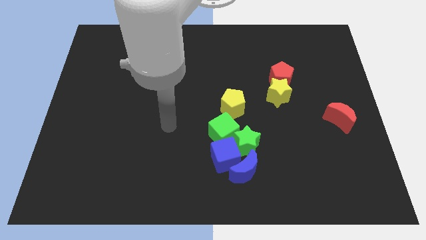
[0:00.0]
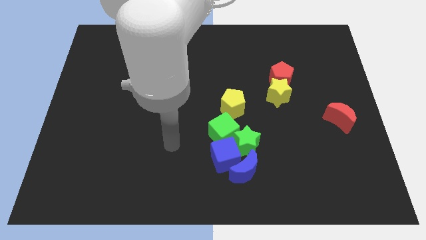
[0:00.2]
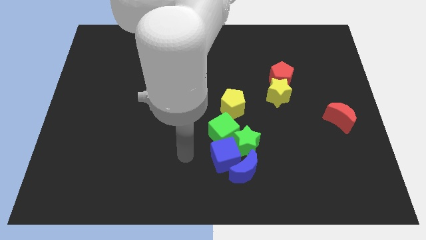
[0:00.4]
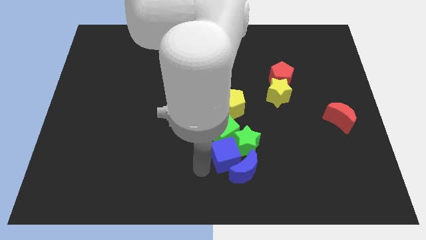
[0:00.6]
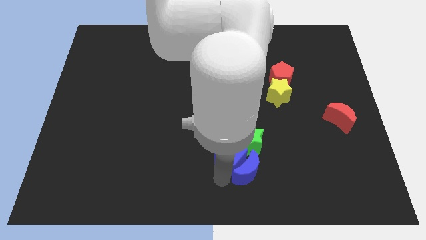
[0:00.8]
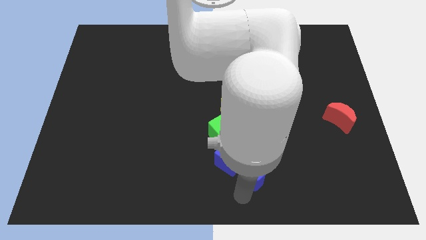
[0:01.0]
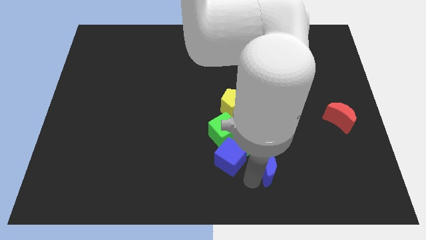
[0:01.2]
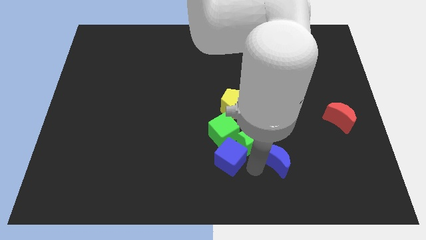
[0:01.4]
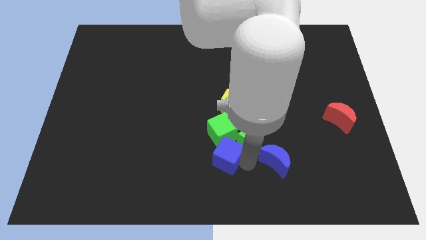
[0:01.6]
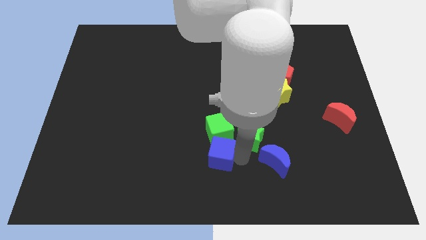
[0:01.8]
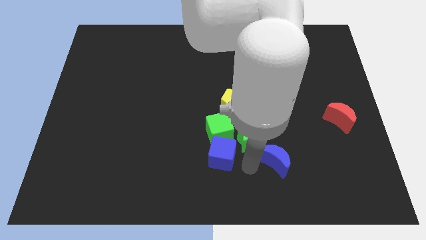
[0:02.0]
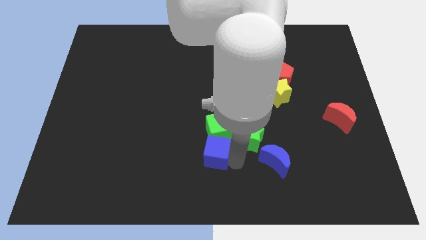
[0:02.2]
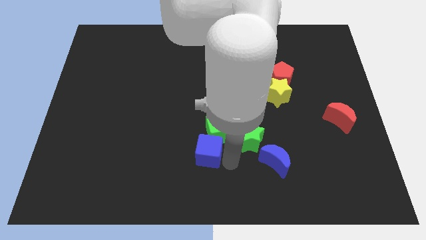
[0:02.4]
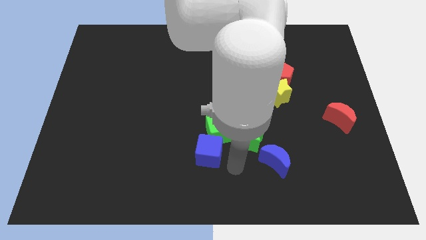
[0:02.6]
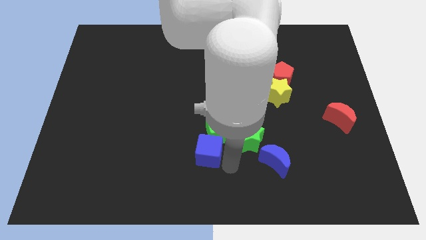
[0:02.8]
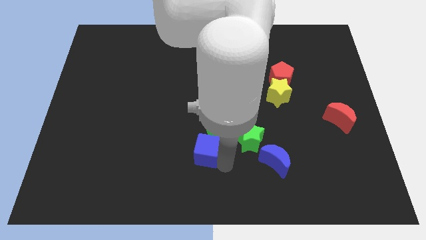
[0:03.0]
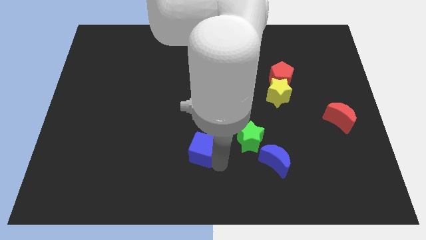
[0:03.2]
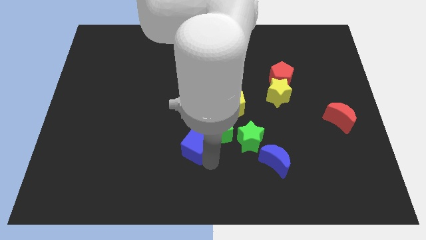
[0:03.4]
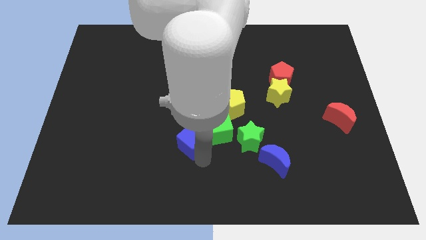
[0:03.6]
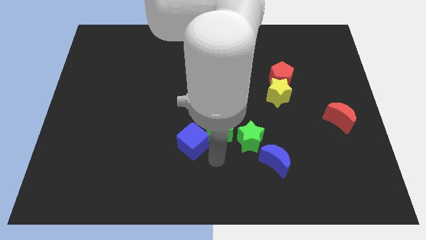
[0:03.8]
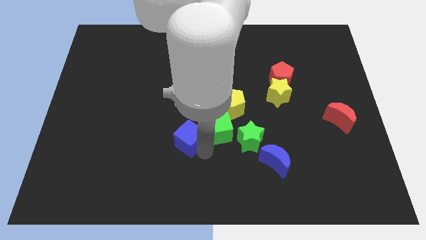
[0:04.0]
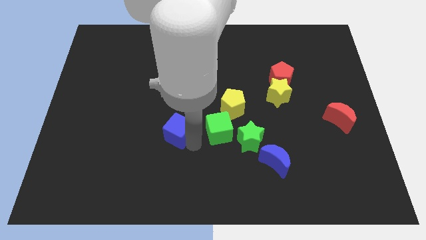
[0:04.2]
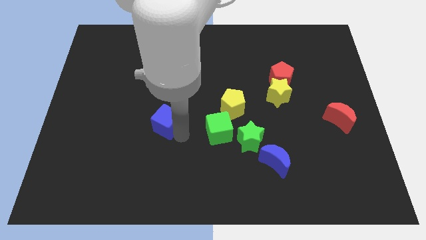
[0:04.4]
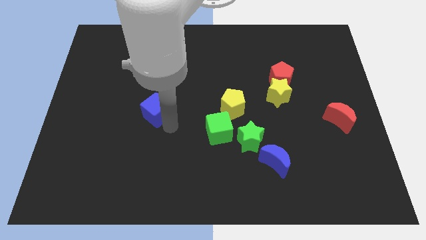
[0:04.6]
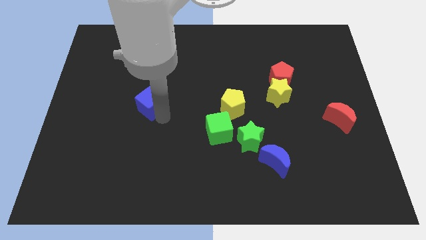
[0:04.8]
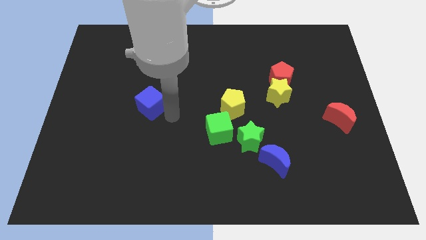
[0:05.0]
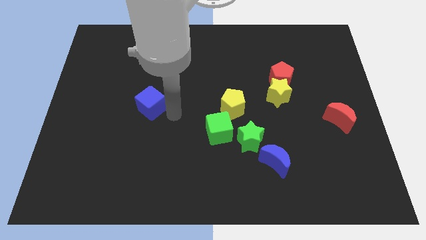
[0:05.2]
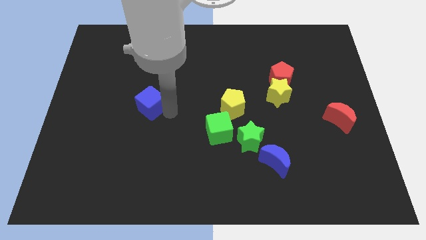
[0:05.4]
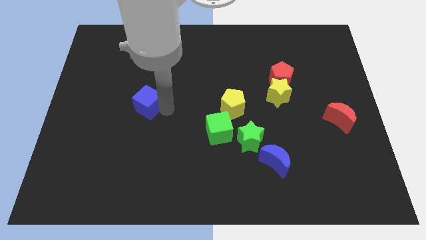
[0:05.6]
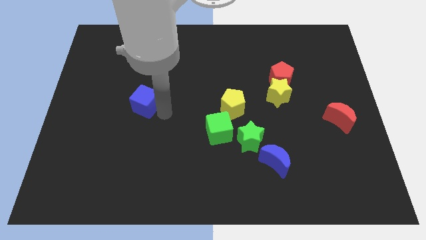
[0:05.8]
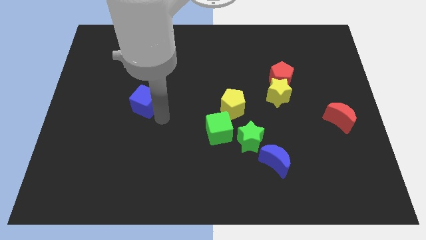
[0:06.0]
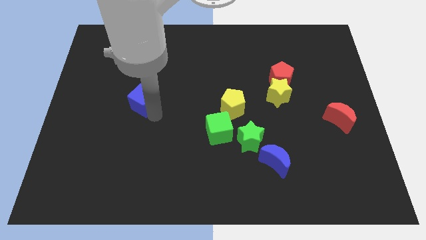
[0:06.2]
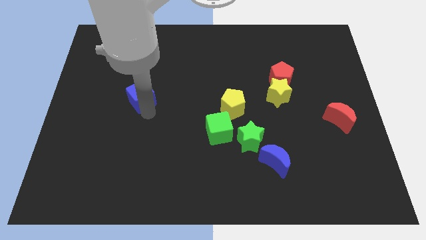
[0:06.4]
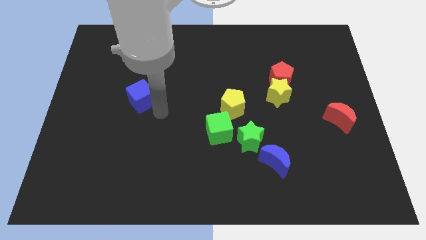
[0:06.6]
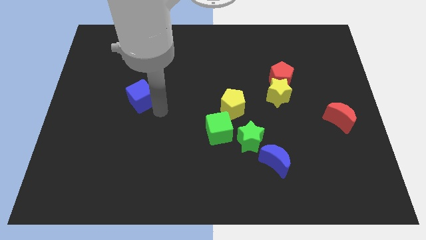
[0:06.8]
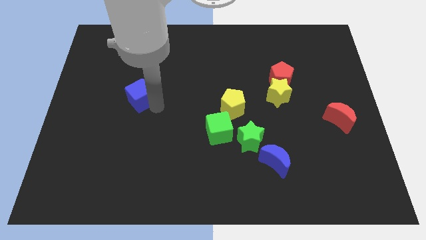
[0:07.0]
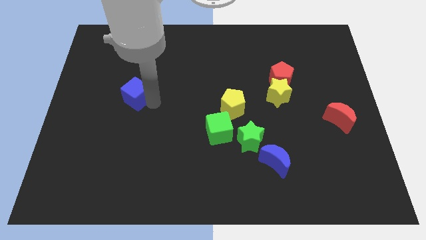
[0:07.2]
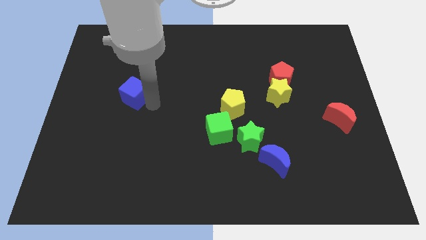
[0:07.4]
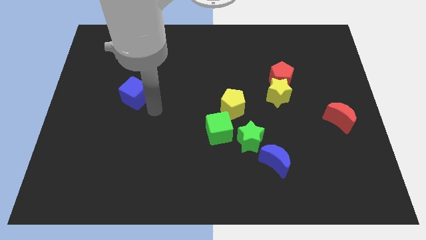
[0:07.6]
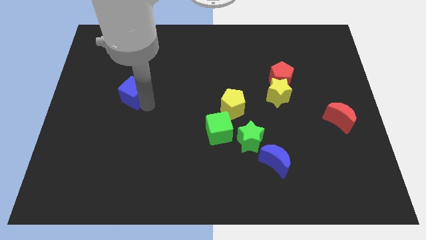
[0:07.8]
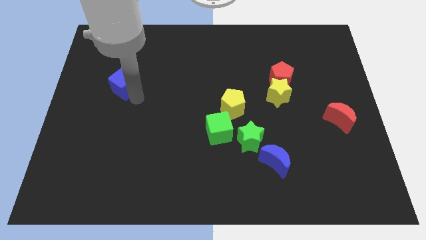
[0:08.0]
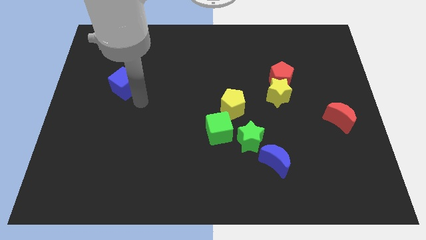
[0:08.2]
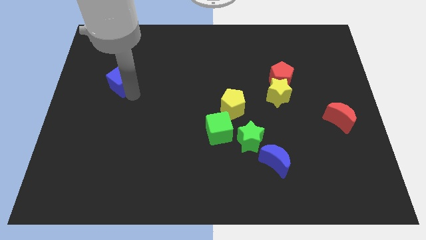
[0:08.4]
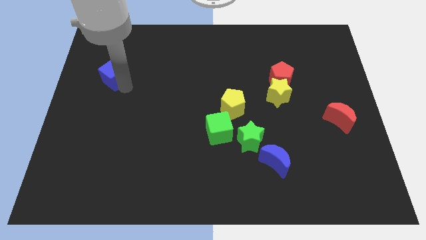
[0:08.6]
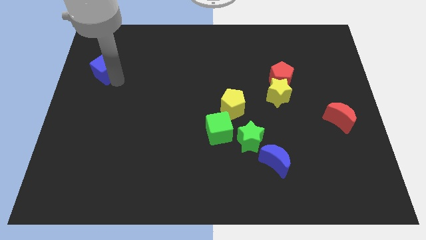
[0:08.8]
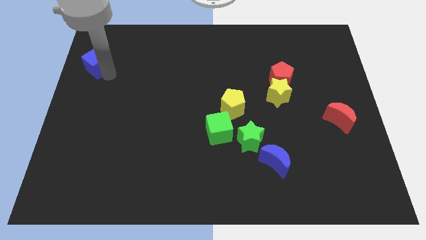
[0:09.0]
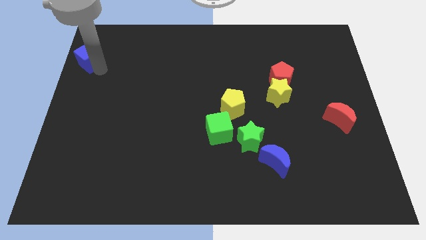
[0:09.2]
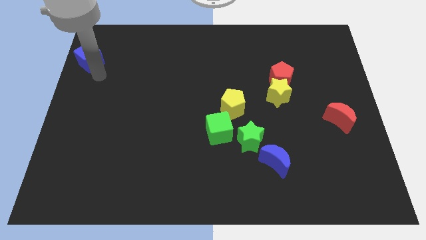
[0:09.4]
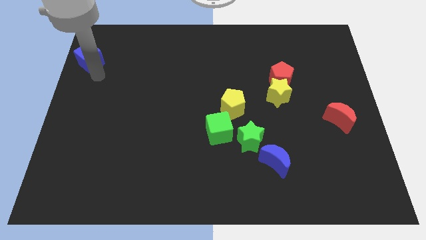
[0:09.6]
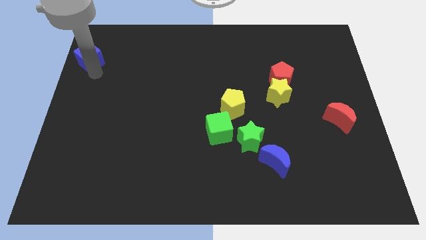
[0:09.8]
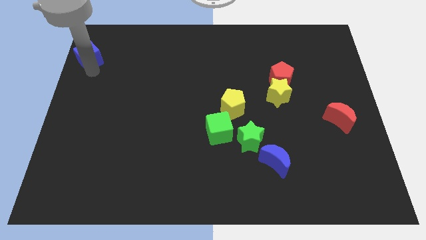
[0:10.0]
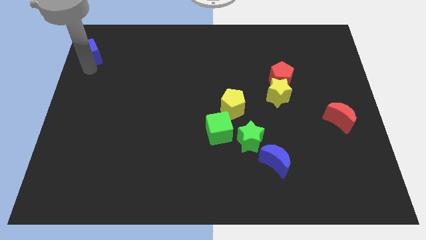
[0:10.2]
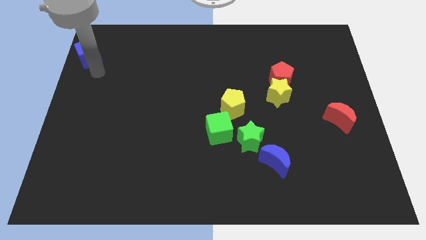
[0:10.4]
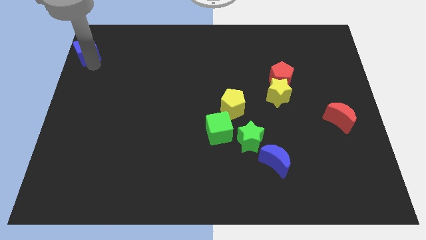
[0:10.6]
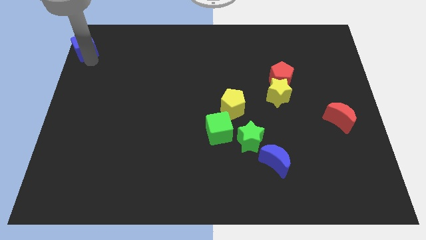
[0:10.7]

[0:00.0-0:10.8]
slide the blue cube to the top left corner
